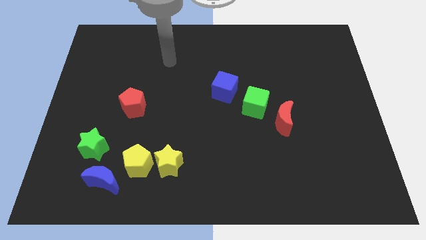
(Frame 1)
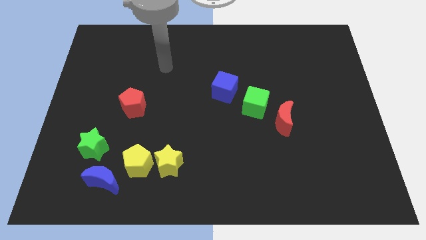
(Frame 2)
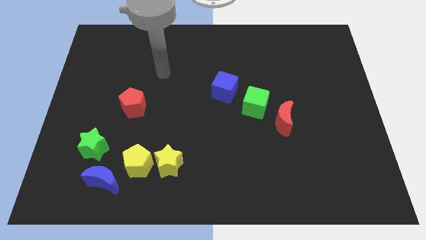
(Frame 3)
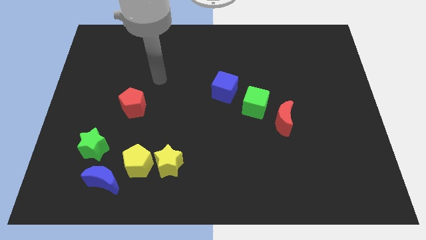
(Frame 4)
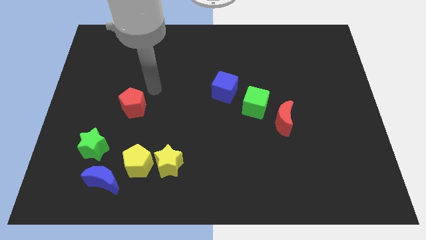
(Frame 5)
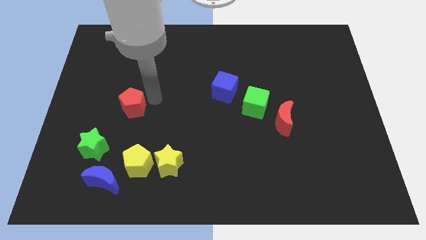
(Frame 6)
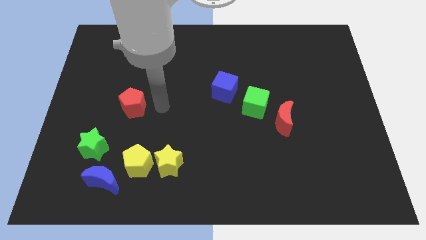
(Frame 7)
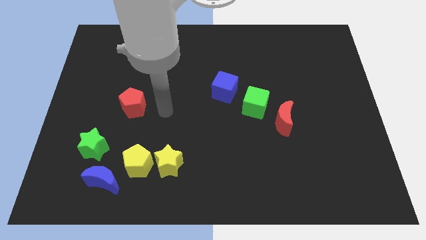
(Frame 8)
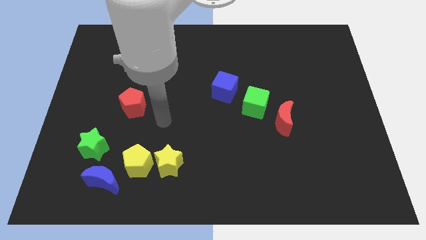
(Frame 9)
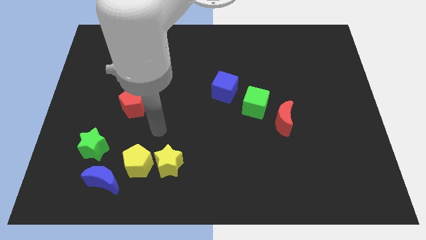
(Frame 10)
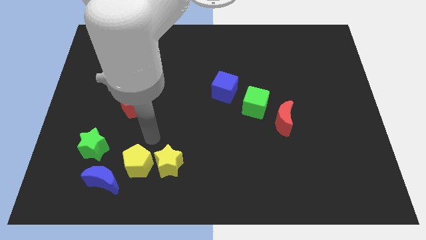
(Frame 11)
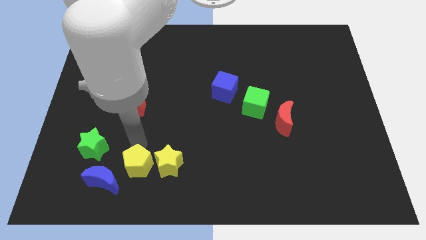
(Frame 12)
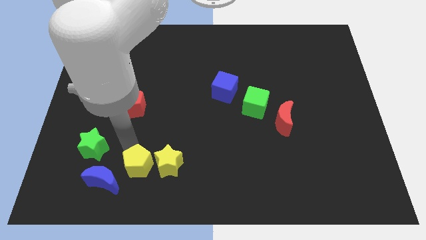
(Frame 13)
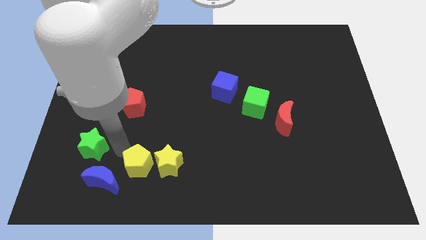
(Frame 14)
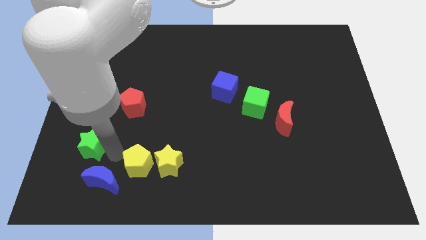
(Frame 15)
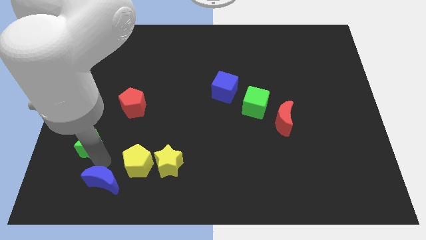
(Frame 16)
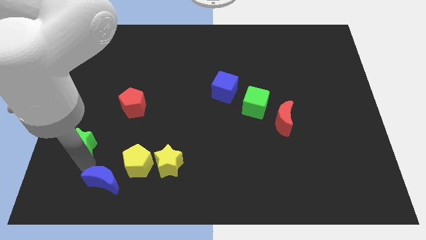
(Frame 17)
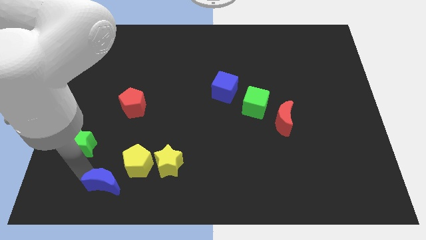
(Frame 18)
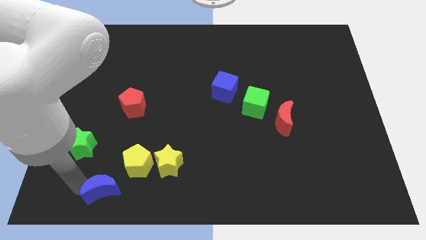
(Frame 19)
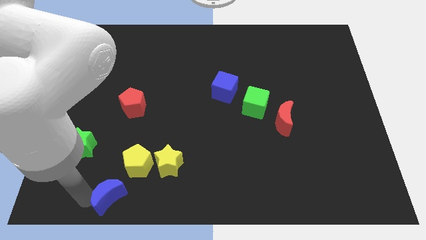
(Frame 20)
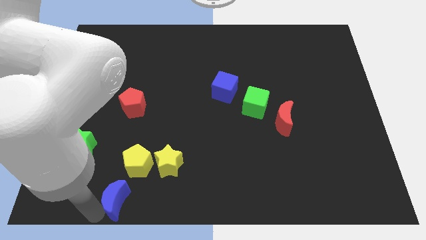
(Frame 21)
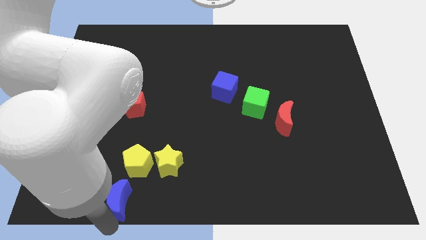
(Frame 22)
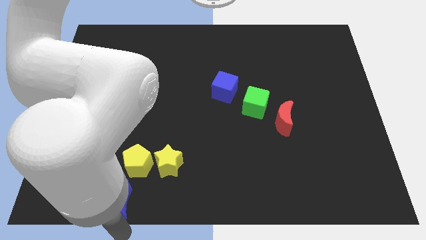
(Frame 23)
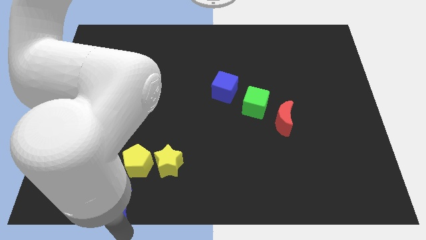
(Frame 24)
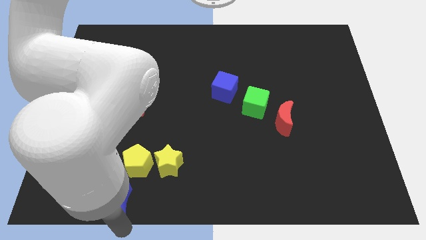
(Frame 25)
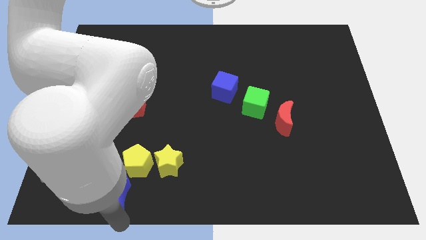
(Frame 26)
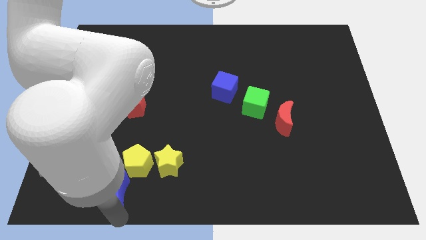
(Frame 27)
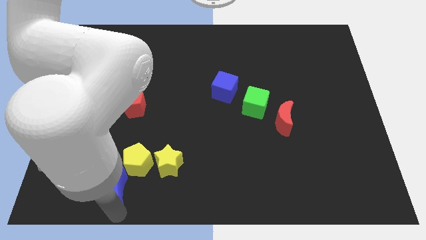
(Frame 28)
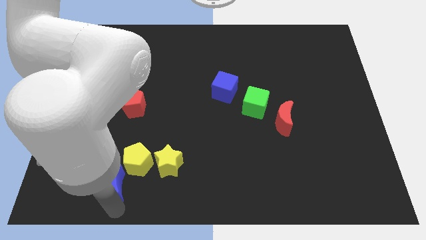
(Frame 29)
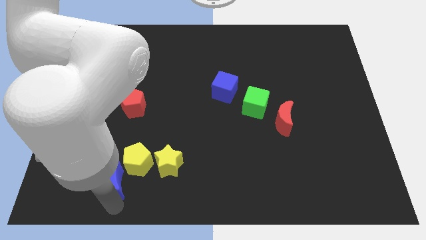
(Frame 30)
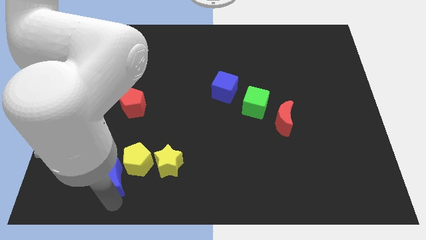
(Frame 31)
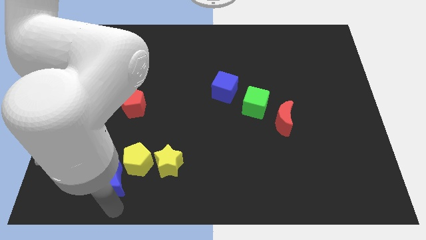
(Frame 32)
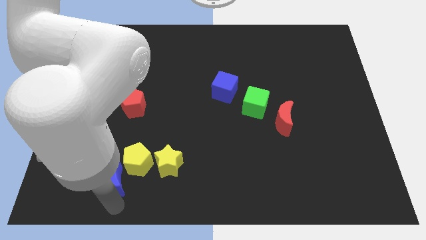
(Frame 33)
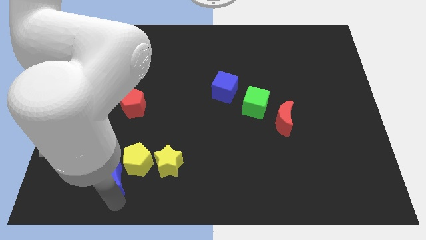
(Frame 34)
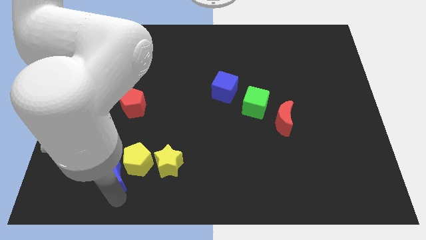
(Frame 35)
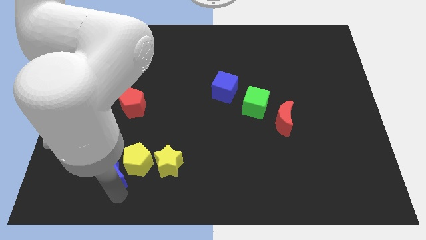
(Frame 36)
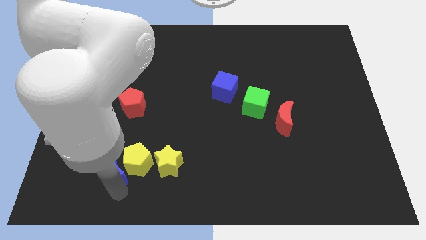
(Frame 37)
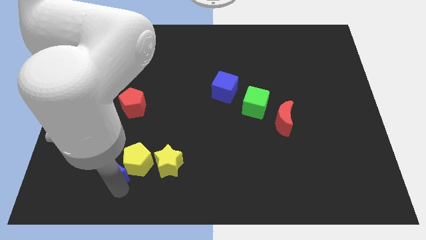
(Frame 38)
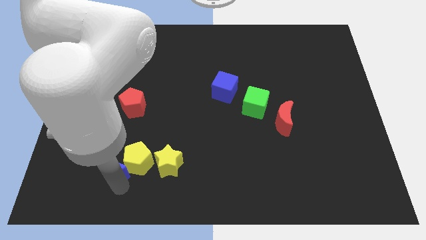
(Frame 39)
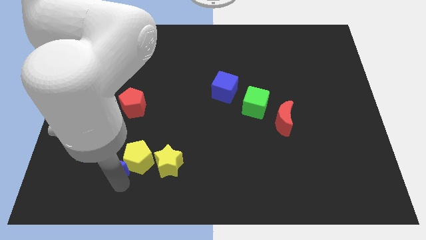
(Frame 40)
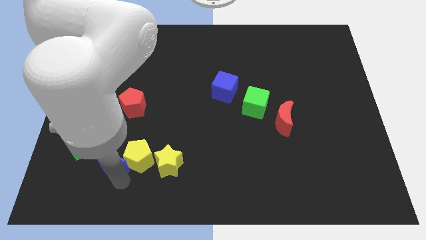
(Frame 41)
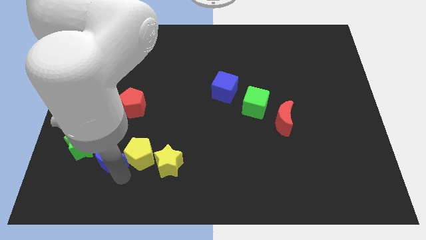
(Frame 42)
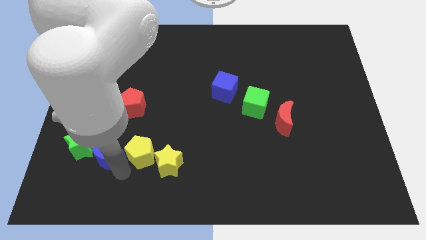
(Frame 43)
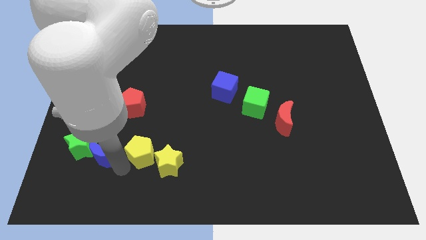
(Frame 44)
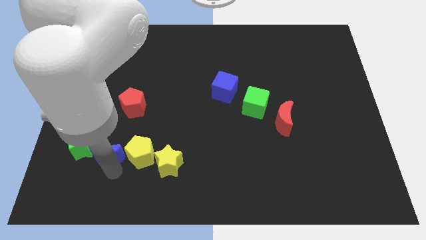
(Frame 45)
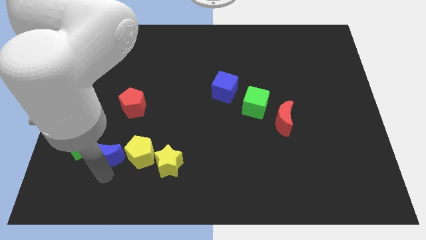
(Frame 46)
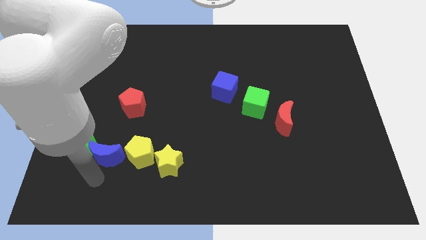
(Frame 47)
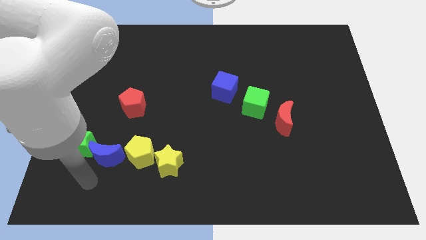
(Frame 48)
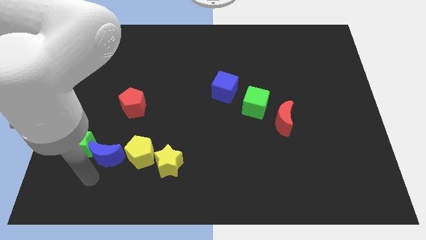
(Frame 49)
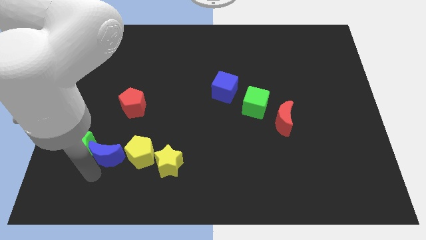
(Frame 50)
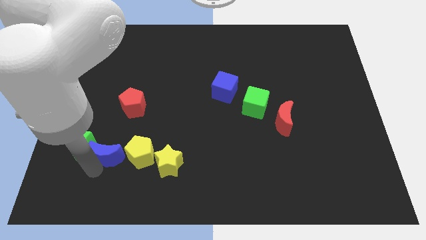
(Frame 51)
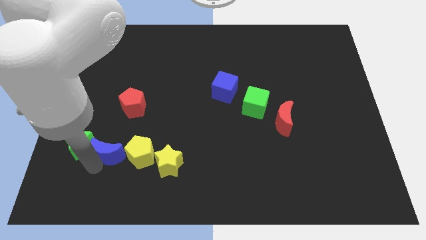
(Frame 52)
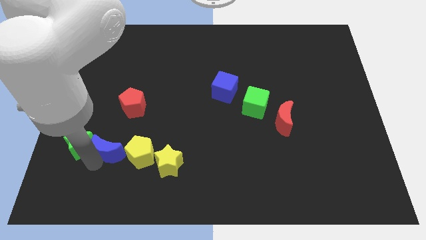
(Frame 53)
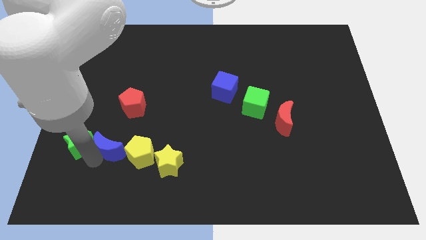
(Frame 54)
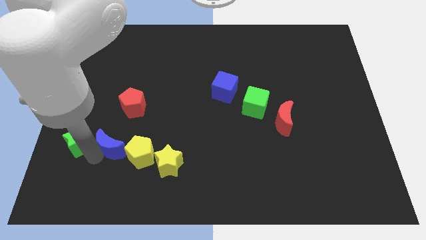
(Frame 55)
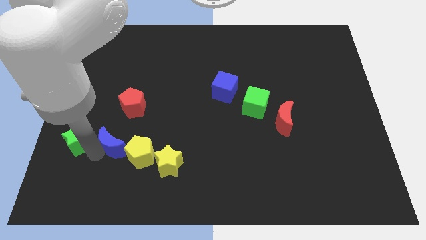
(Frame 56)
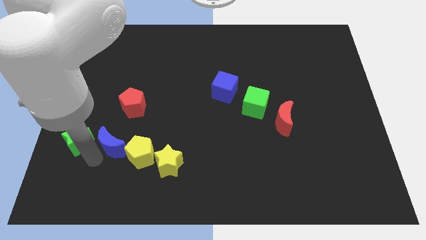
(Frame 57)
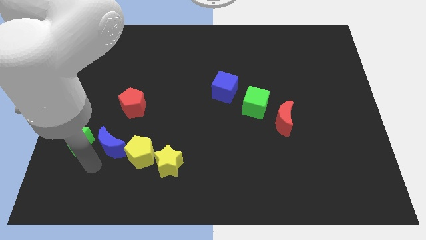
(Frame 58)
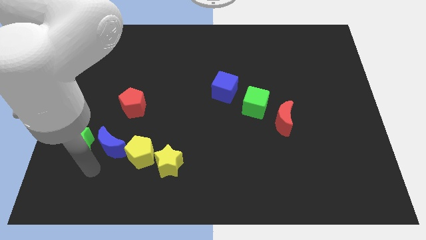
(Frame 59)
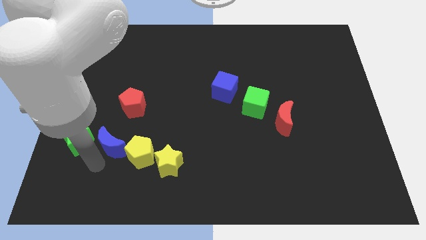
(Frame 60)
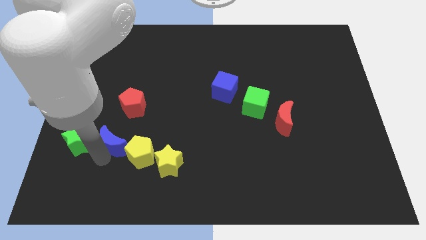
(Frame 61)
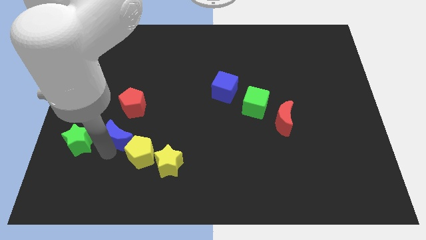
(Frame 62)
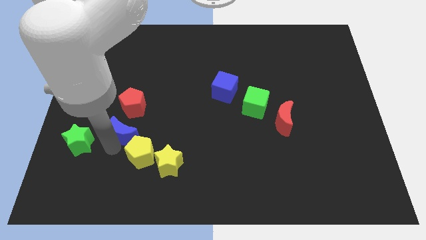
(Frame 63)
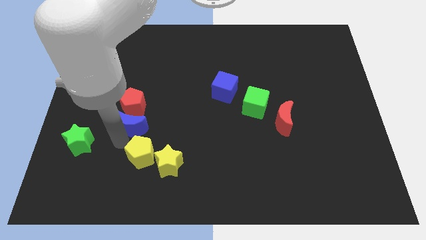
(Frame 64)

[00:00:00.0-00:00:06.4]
move the blue moon to the red pentagon
